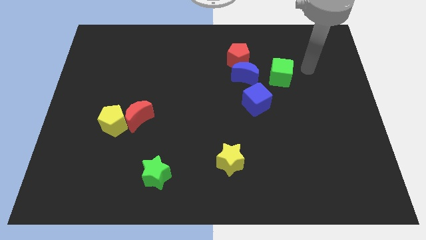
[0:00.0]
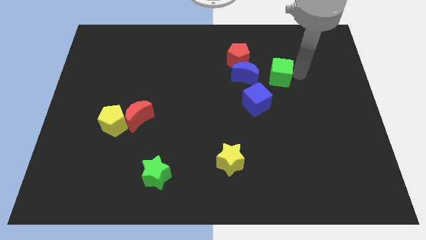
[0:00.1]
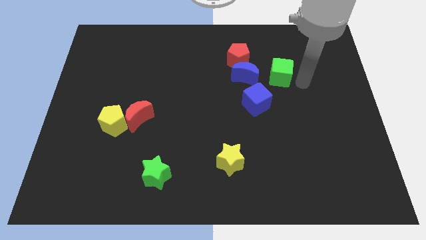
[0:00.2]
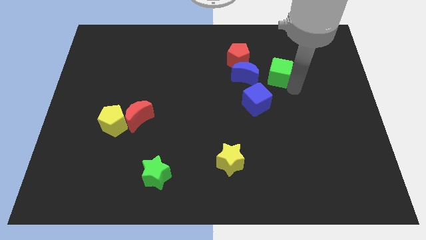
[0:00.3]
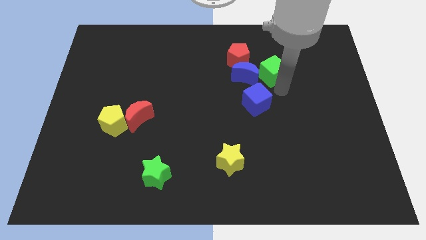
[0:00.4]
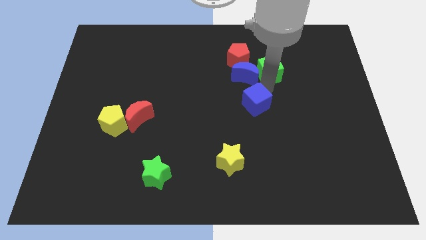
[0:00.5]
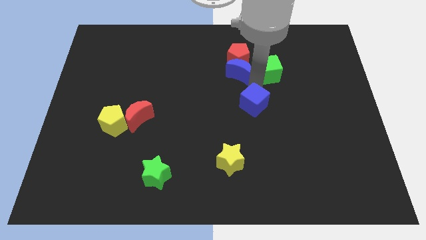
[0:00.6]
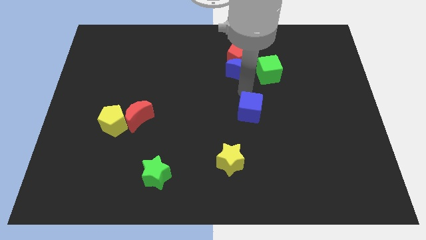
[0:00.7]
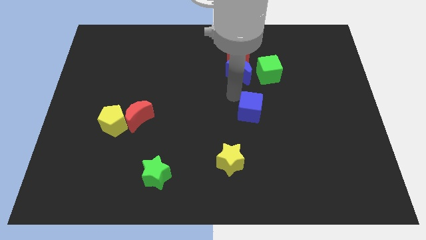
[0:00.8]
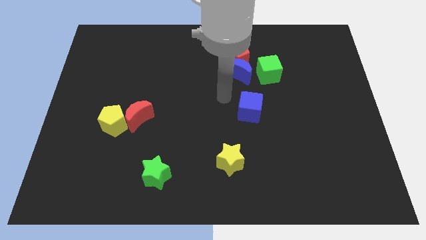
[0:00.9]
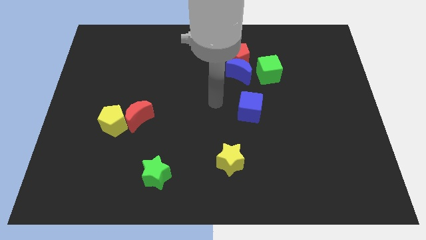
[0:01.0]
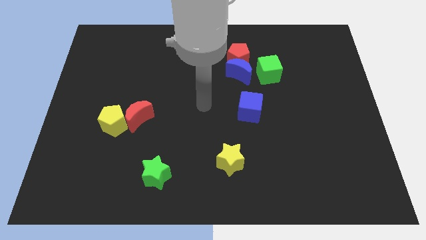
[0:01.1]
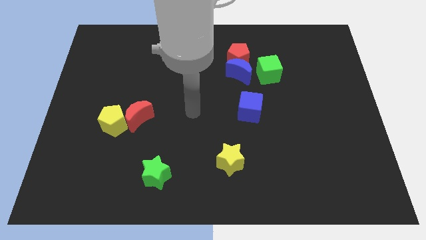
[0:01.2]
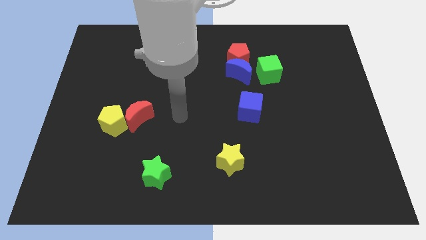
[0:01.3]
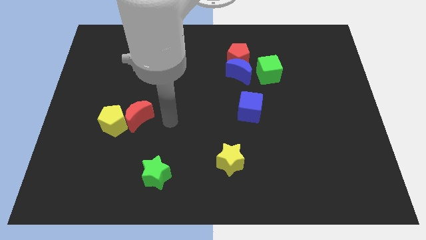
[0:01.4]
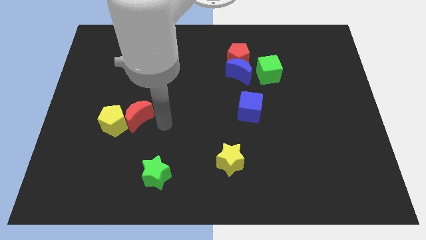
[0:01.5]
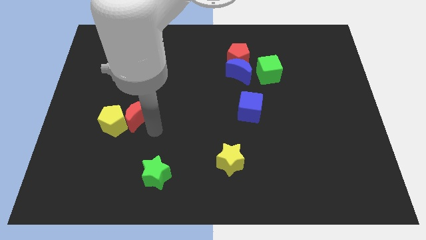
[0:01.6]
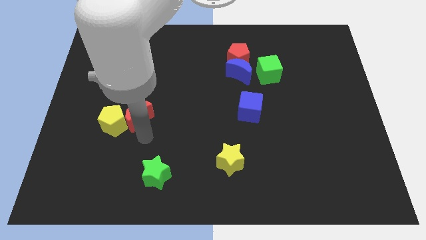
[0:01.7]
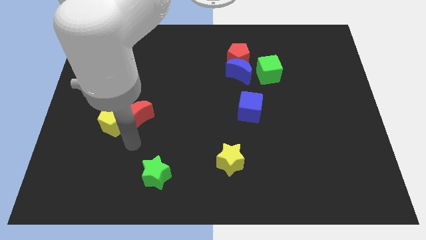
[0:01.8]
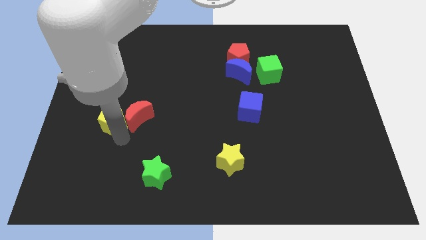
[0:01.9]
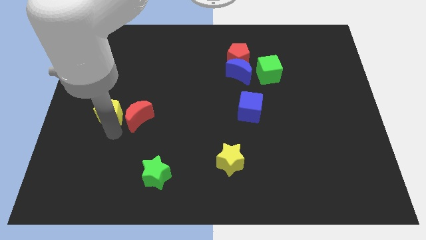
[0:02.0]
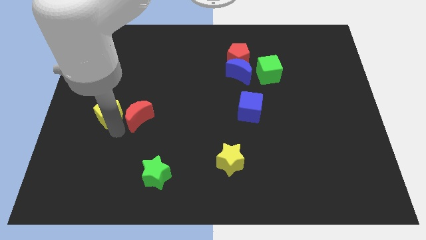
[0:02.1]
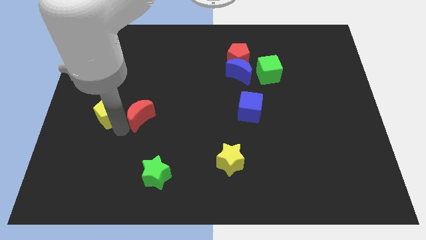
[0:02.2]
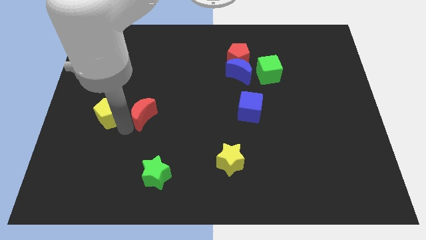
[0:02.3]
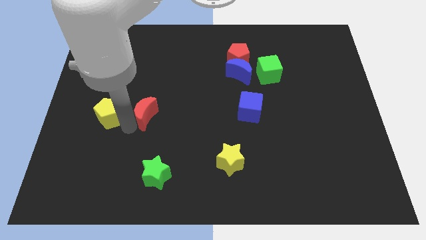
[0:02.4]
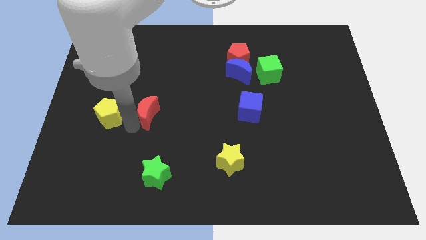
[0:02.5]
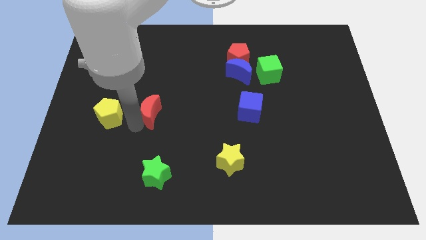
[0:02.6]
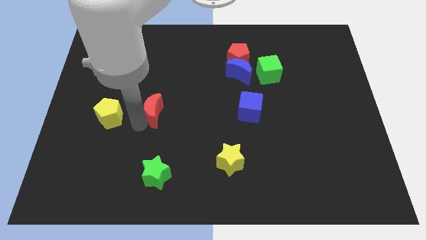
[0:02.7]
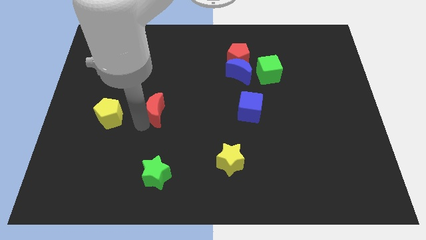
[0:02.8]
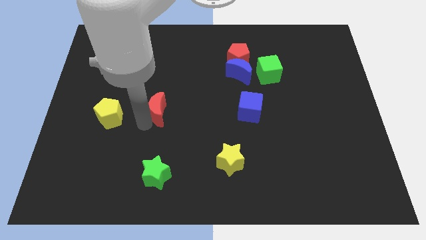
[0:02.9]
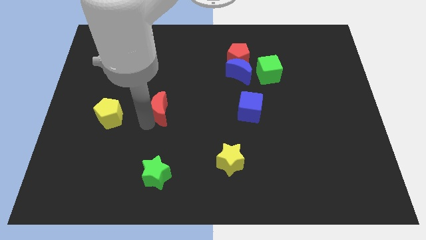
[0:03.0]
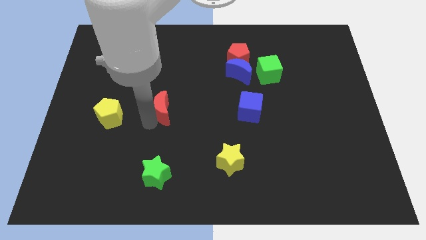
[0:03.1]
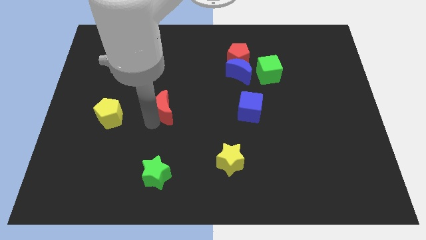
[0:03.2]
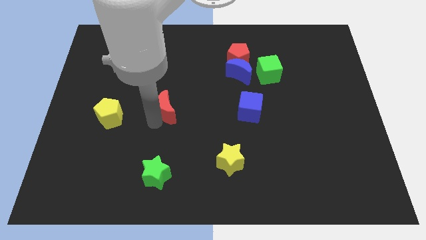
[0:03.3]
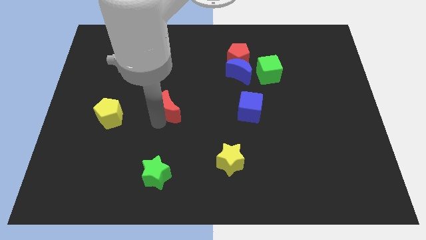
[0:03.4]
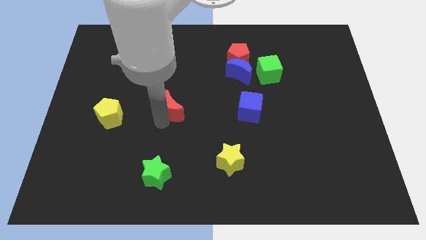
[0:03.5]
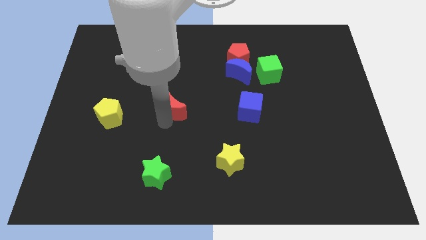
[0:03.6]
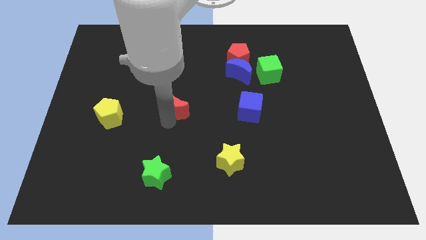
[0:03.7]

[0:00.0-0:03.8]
slide the red moon a little diagonally up and right

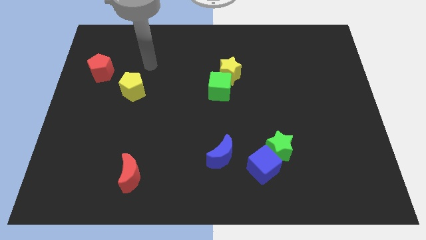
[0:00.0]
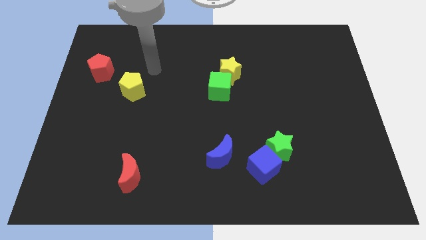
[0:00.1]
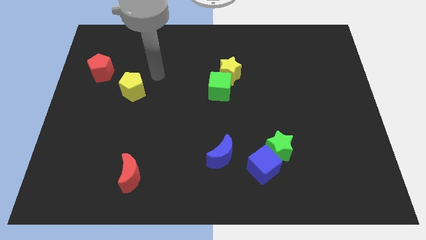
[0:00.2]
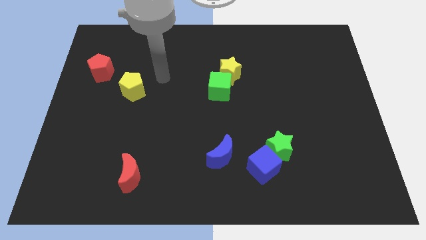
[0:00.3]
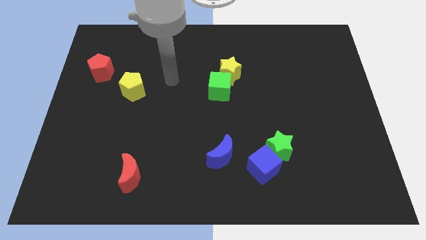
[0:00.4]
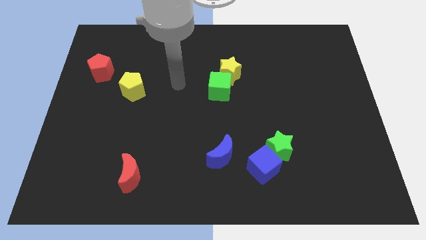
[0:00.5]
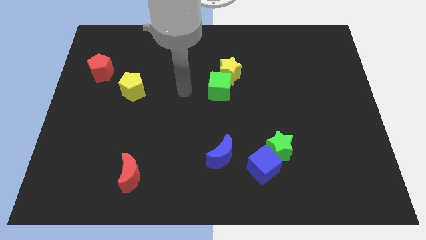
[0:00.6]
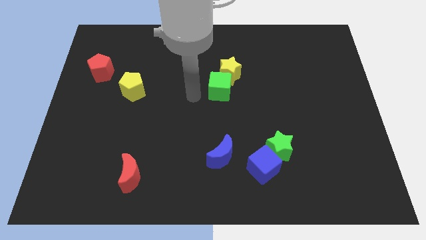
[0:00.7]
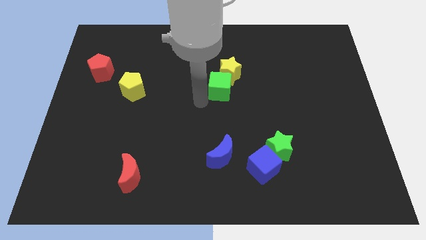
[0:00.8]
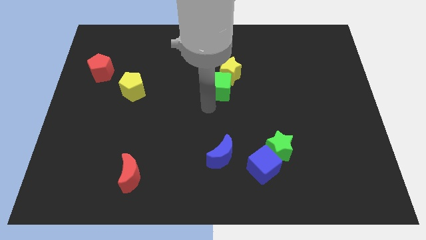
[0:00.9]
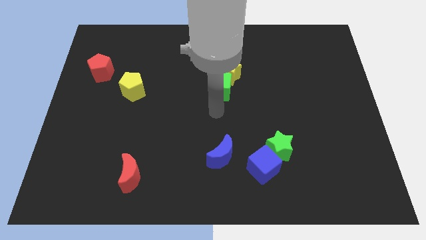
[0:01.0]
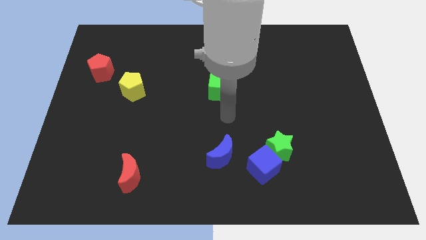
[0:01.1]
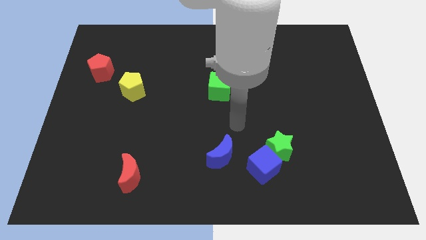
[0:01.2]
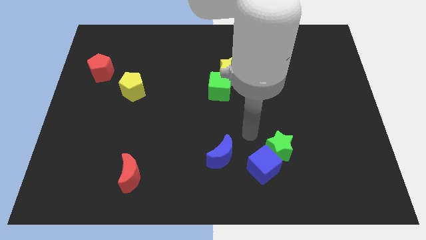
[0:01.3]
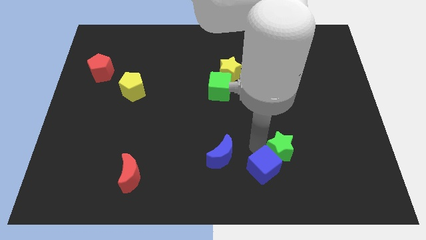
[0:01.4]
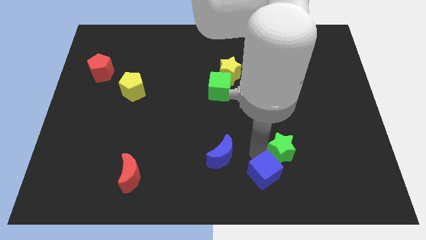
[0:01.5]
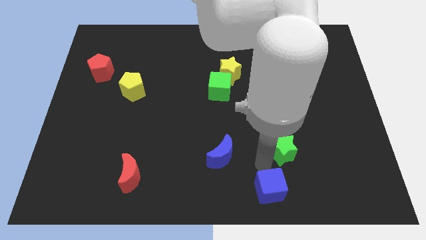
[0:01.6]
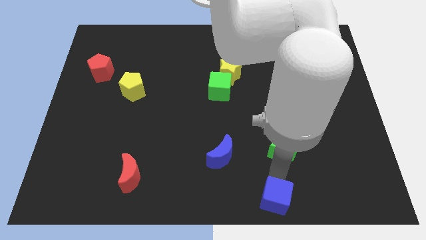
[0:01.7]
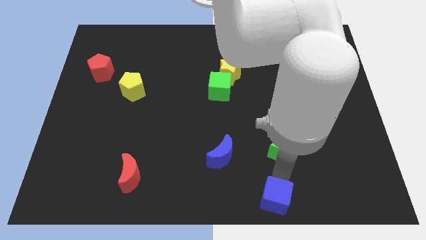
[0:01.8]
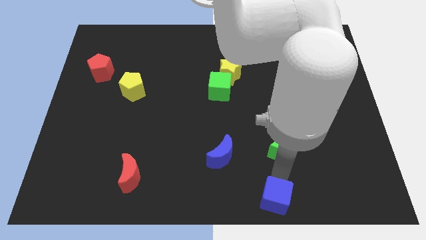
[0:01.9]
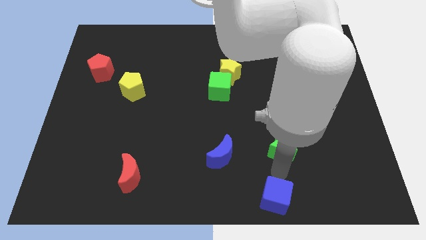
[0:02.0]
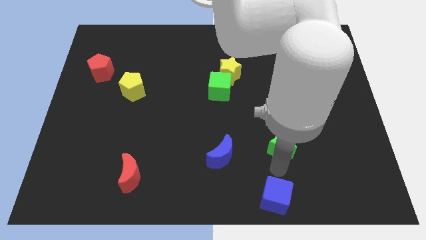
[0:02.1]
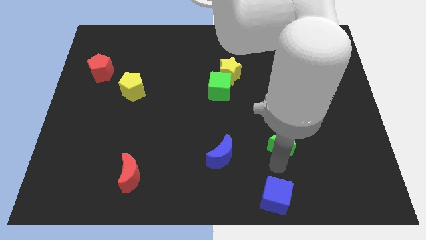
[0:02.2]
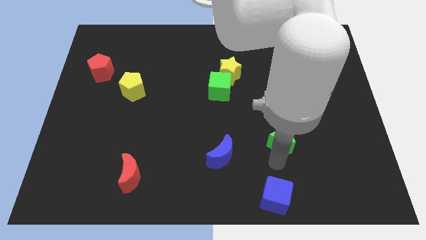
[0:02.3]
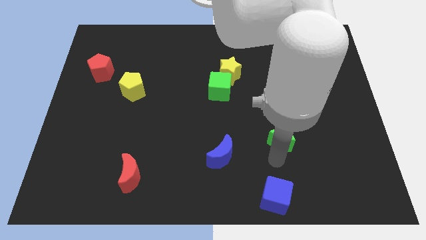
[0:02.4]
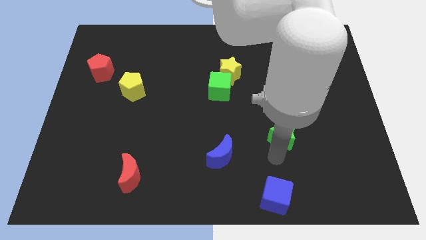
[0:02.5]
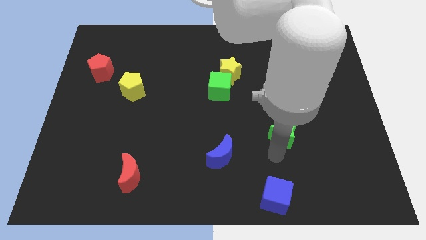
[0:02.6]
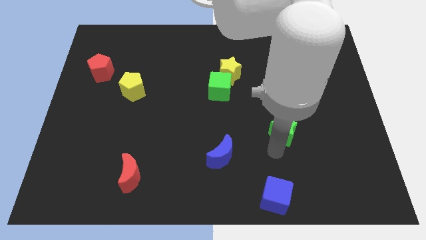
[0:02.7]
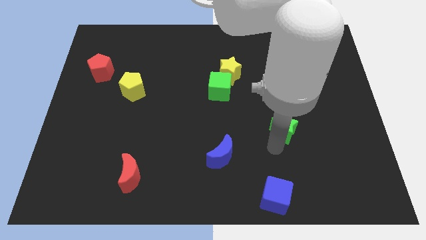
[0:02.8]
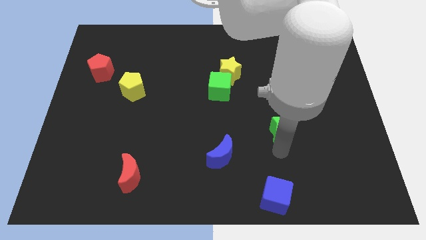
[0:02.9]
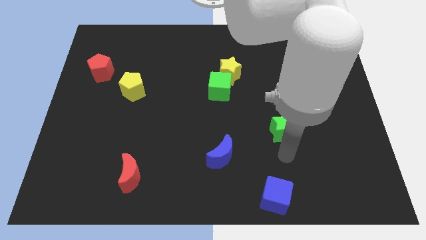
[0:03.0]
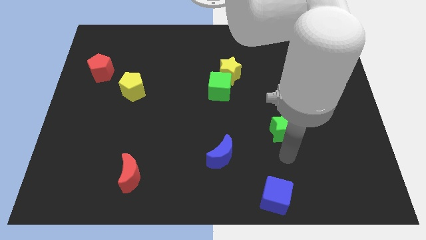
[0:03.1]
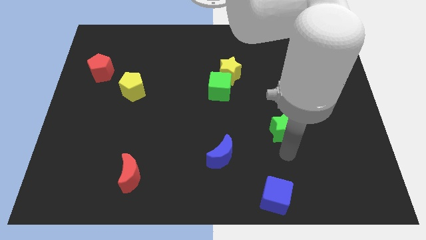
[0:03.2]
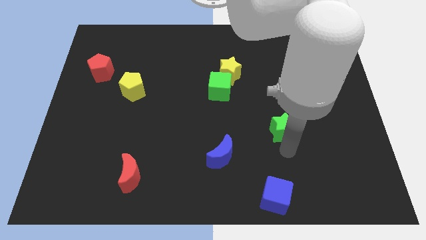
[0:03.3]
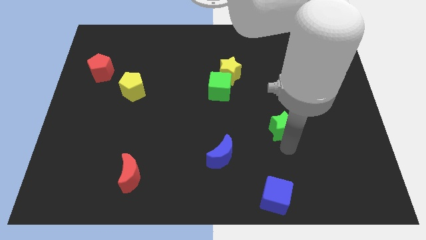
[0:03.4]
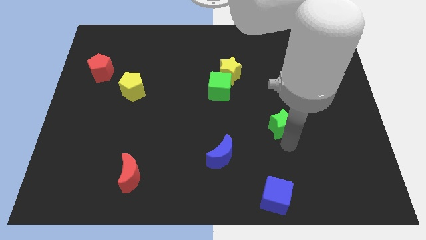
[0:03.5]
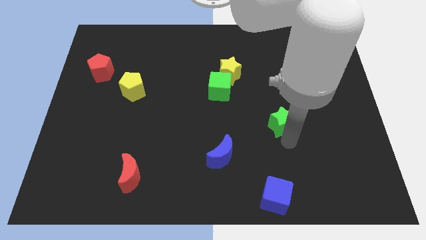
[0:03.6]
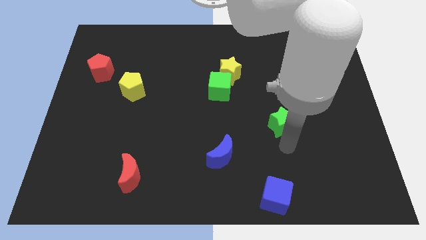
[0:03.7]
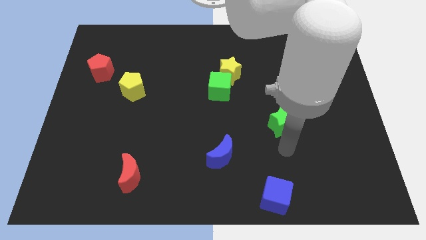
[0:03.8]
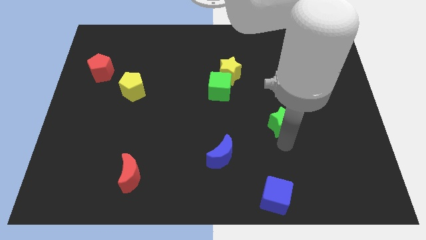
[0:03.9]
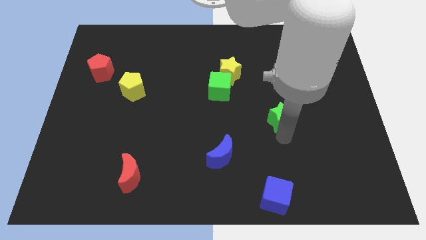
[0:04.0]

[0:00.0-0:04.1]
slightly slide the green star up

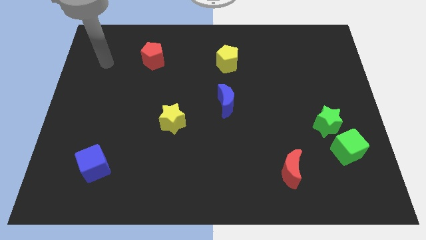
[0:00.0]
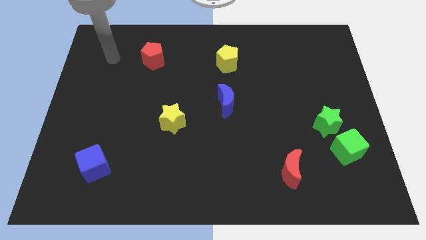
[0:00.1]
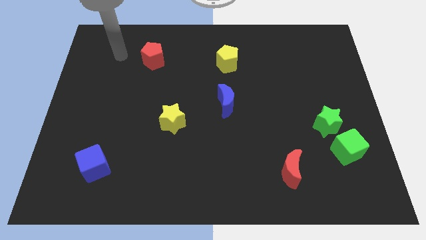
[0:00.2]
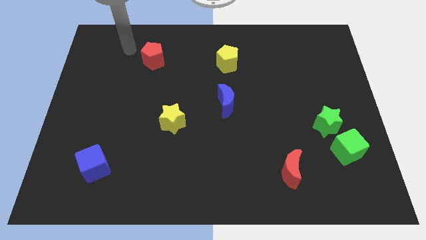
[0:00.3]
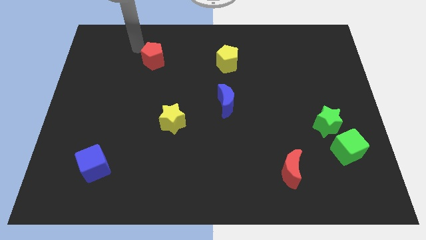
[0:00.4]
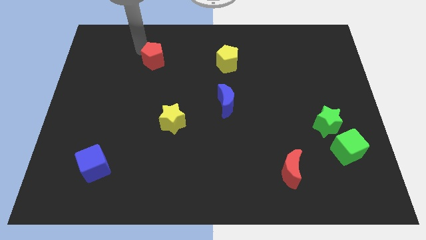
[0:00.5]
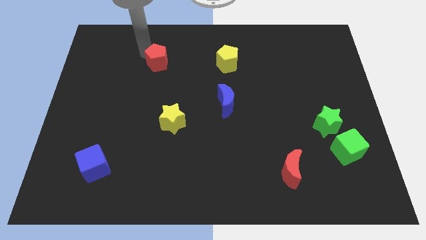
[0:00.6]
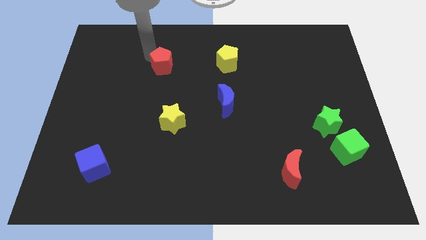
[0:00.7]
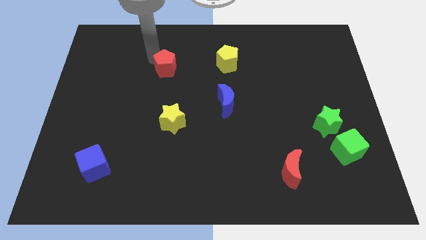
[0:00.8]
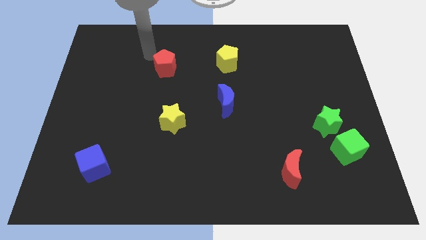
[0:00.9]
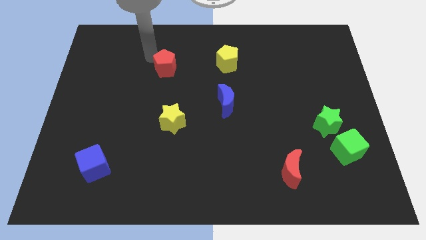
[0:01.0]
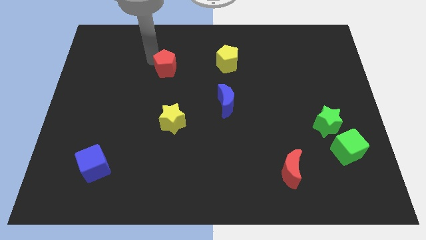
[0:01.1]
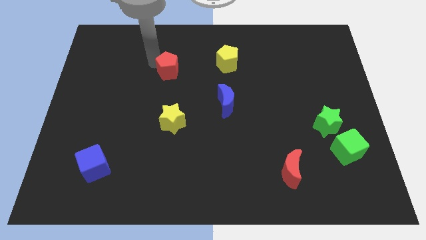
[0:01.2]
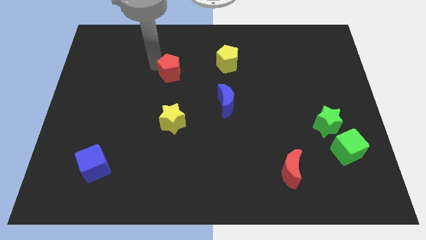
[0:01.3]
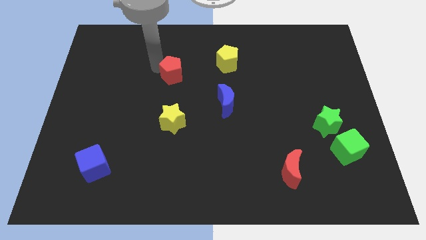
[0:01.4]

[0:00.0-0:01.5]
move the red pentagon a little bit down and right
